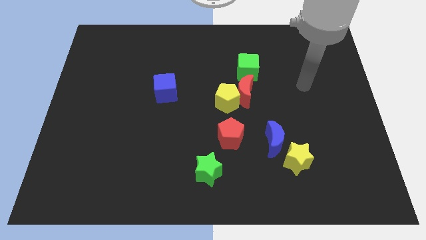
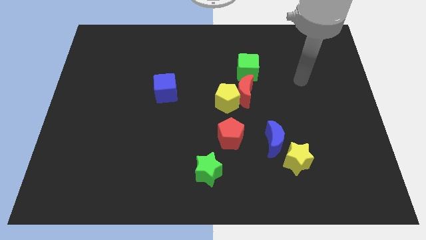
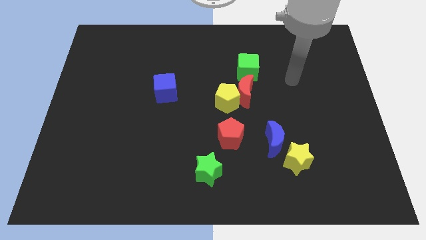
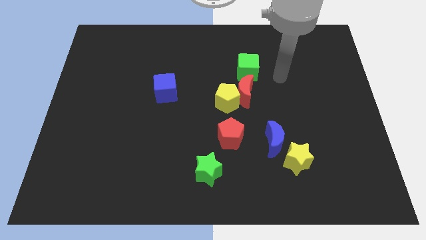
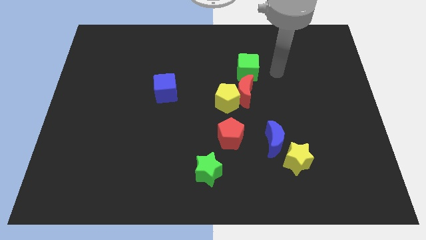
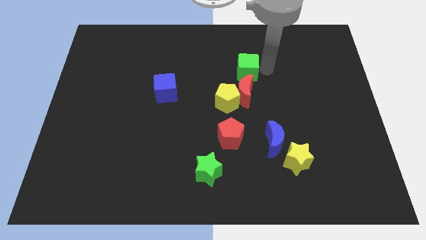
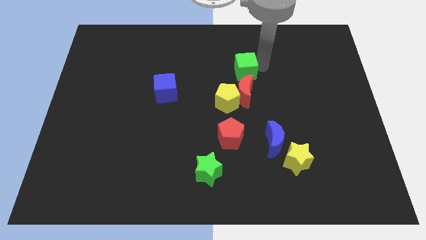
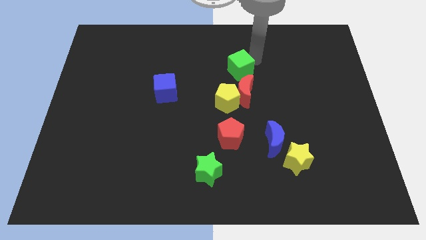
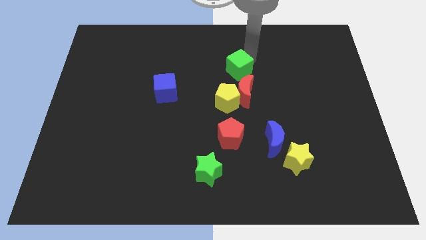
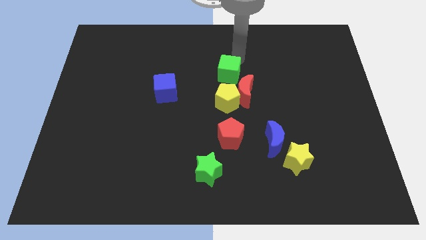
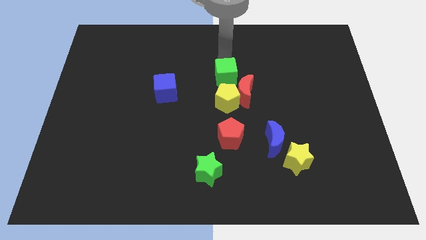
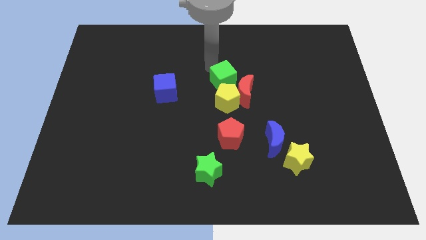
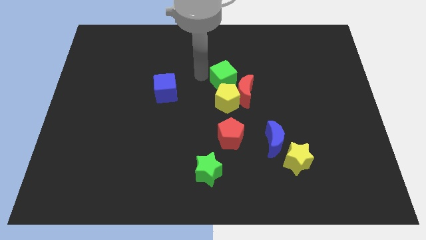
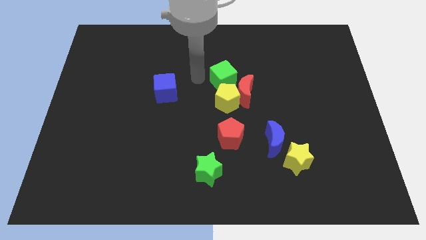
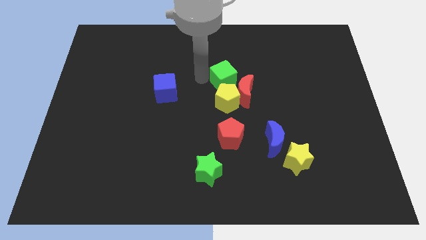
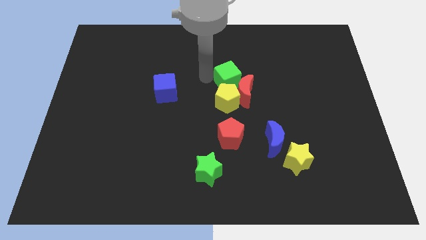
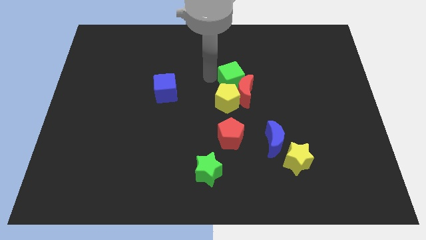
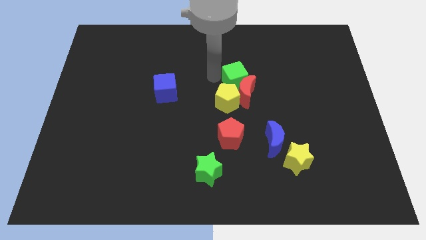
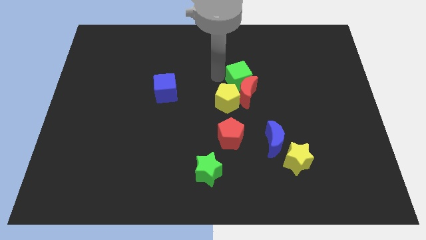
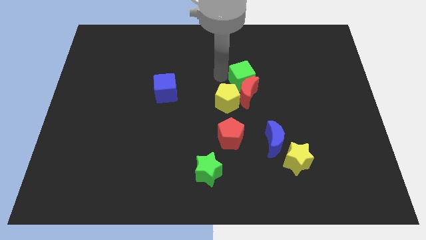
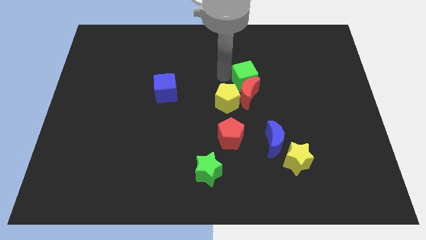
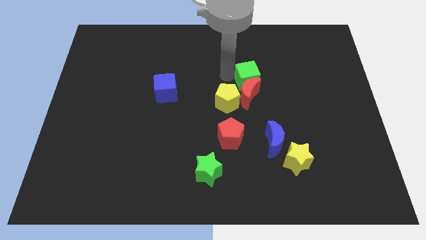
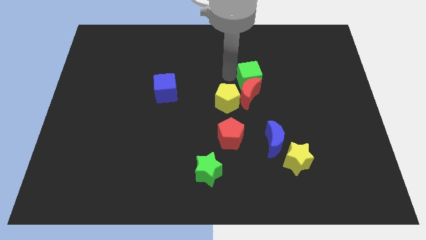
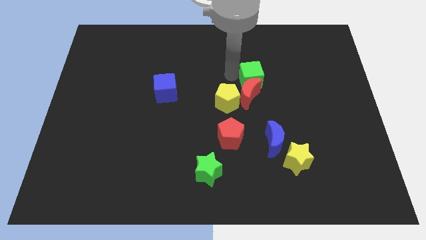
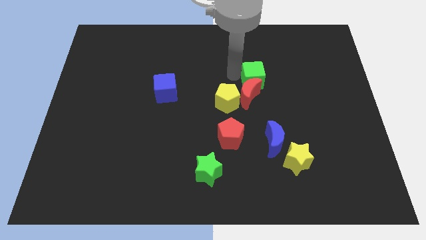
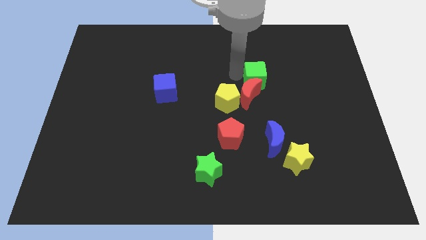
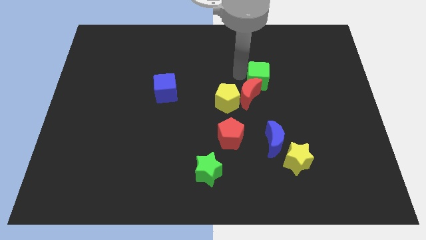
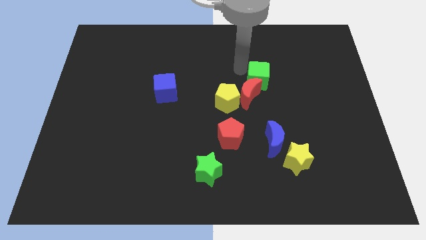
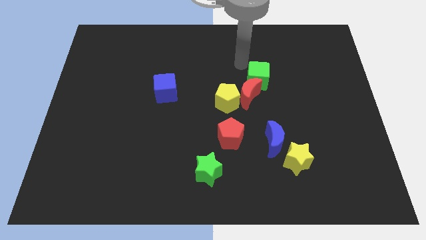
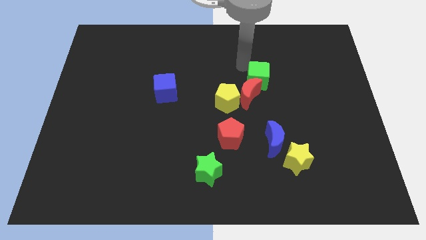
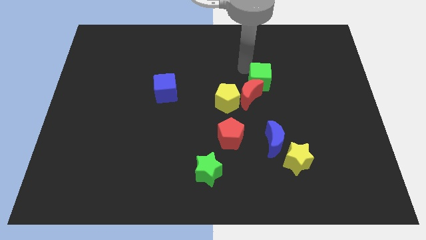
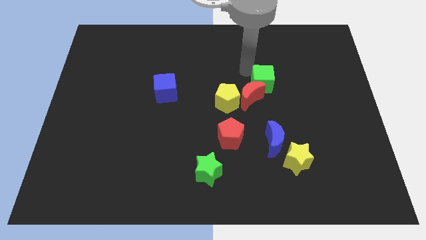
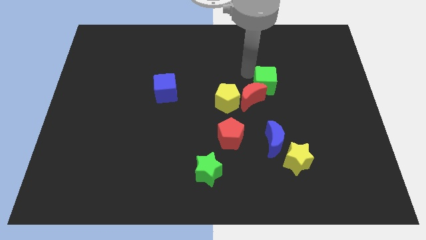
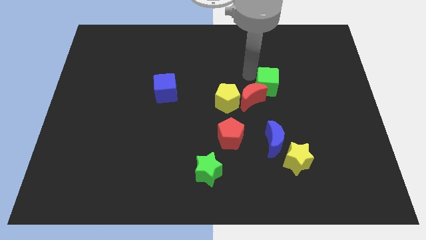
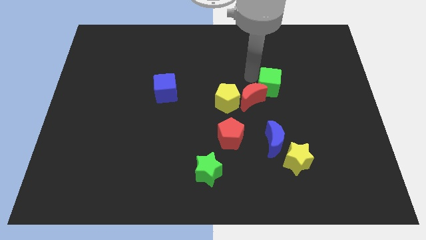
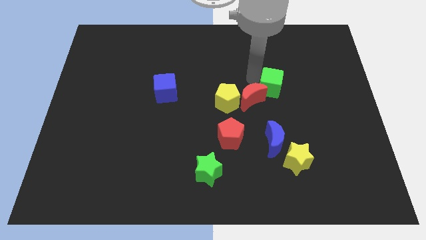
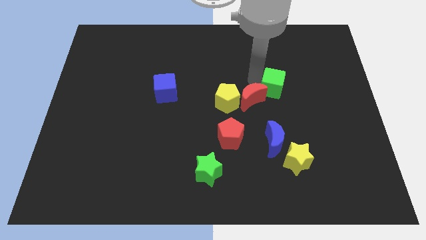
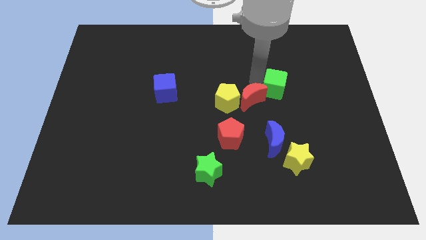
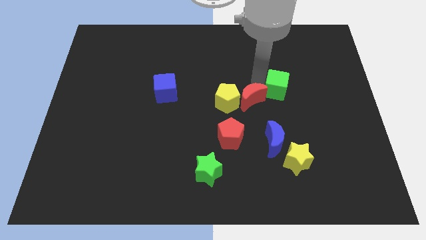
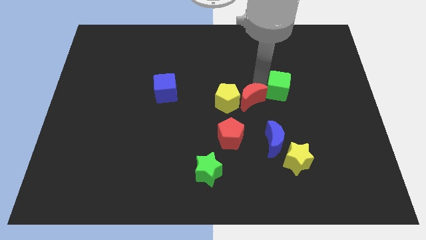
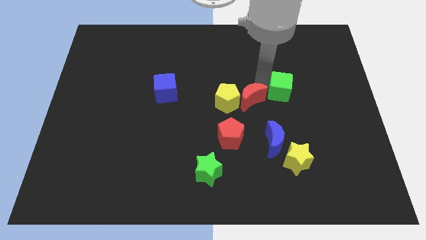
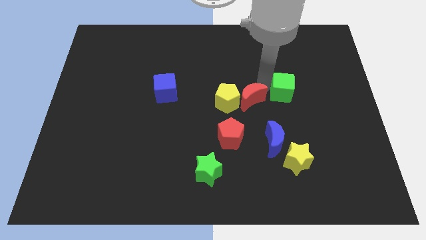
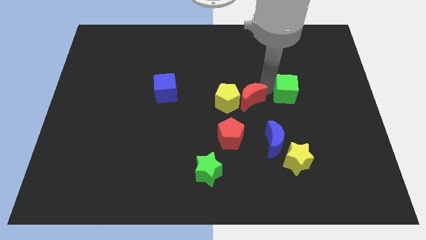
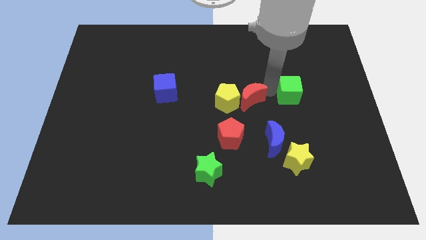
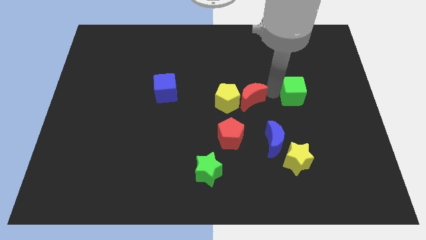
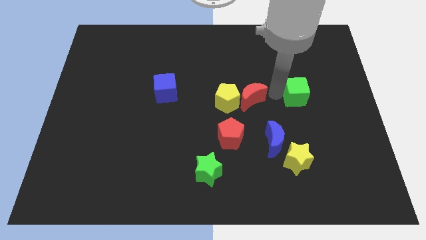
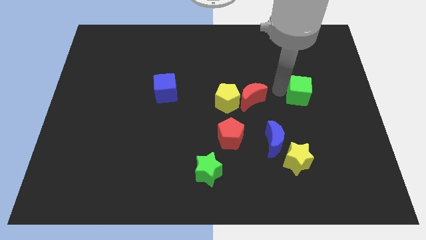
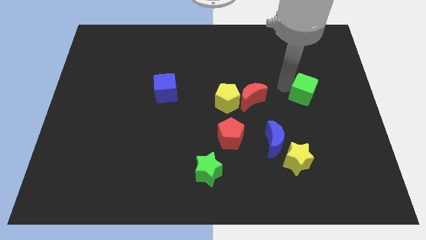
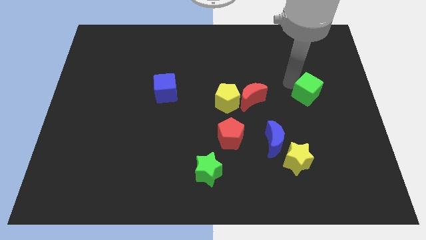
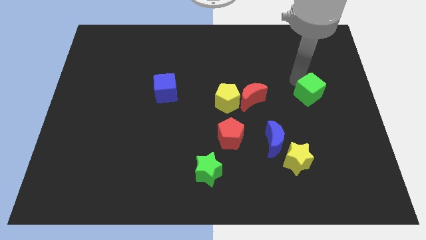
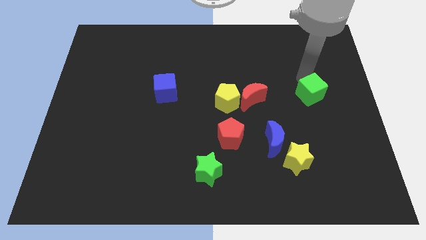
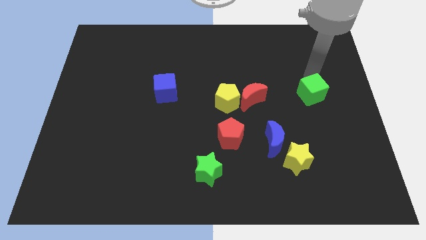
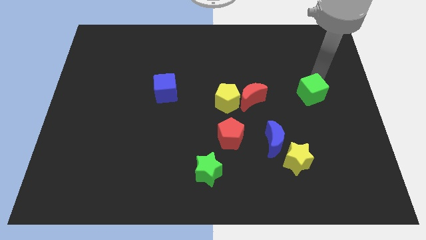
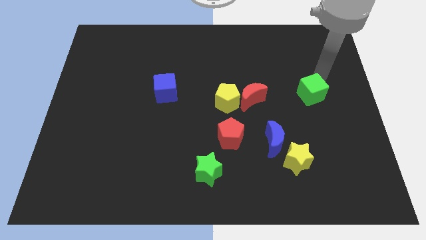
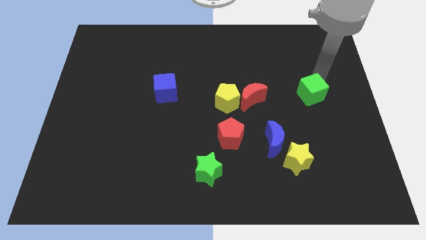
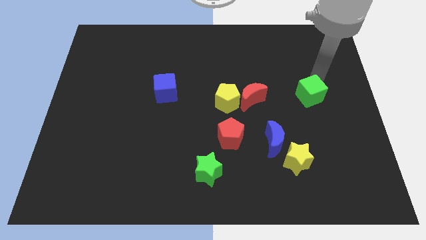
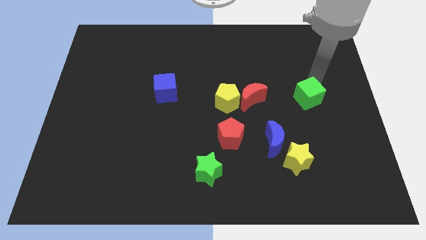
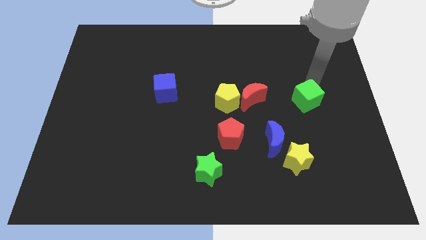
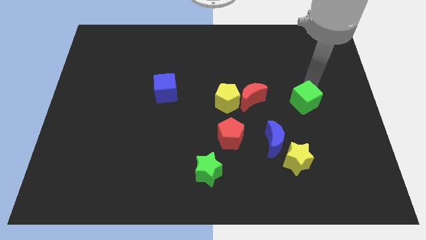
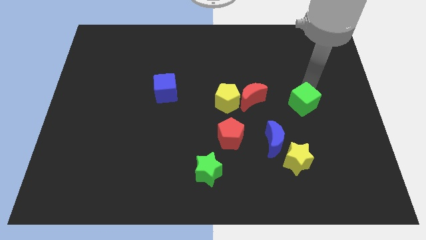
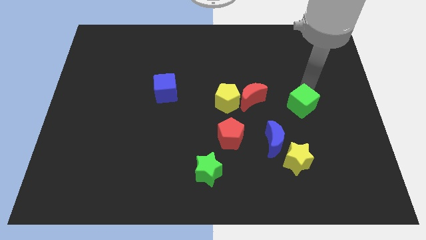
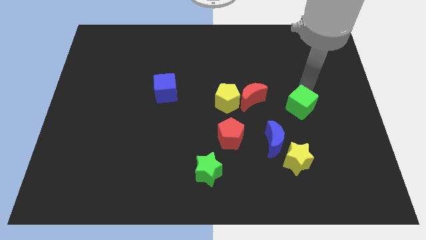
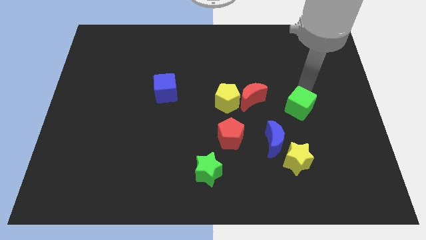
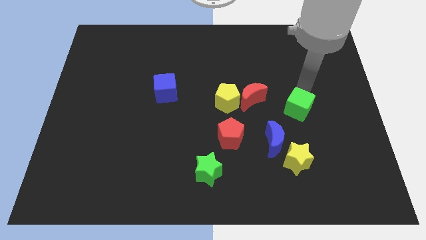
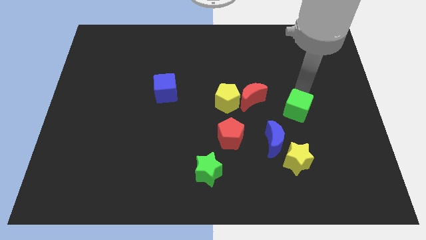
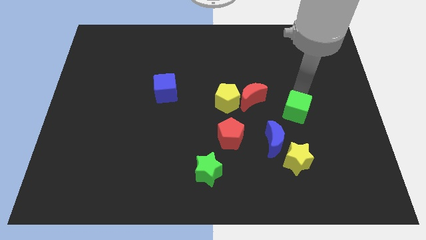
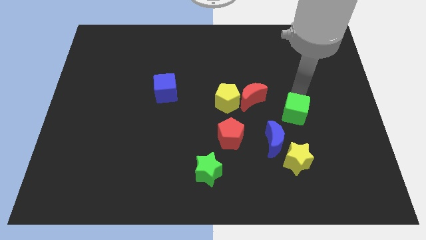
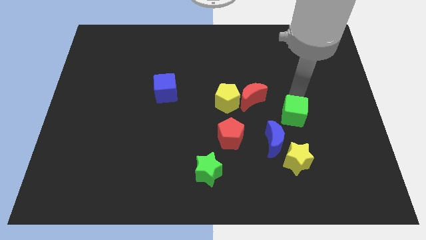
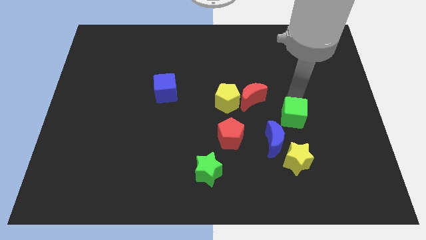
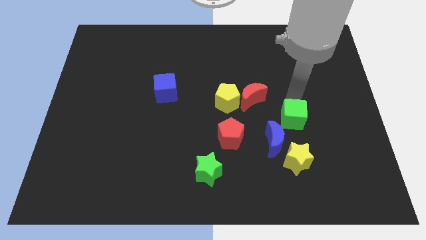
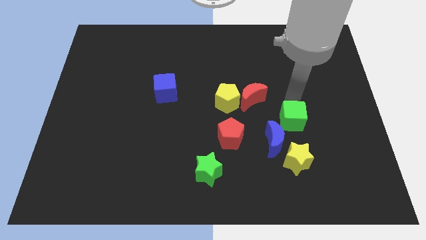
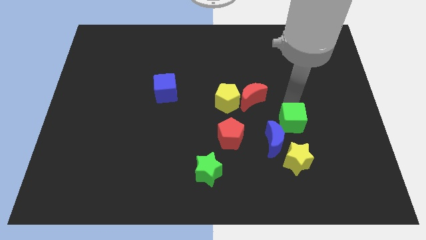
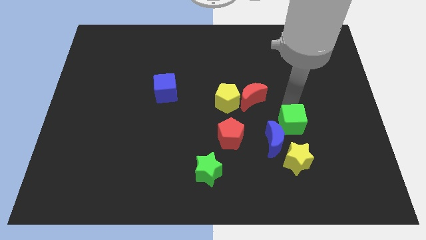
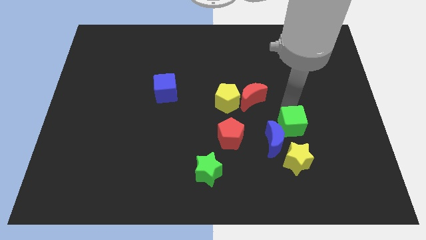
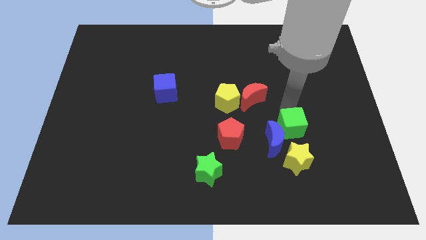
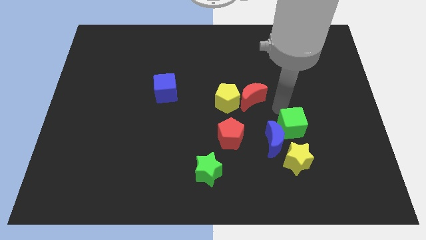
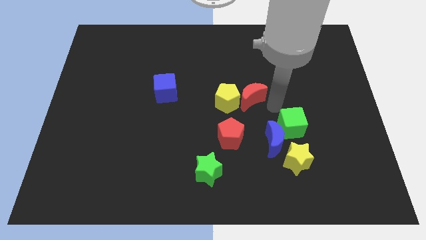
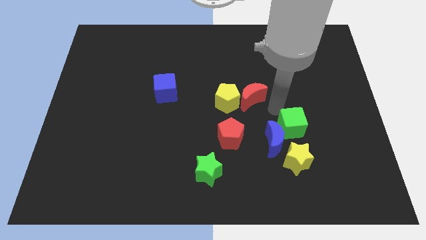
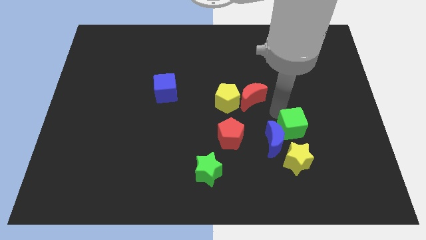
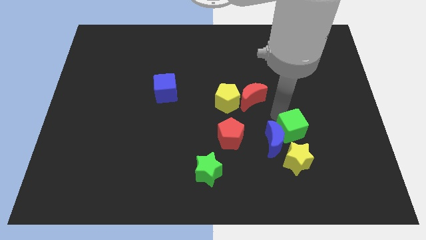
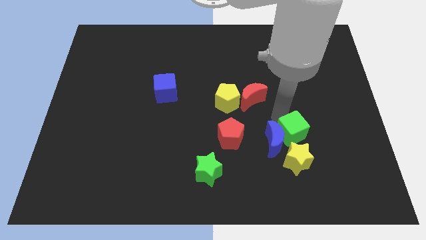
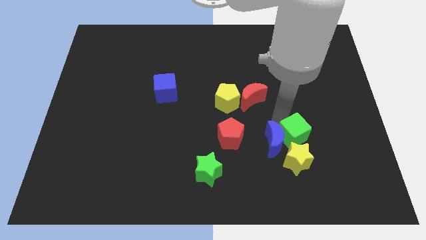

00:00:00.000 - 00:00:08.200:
push the green cube to the bottom right of the blue moon
